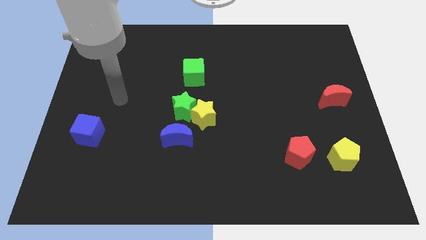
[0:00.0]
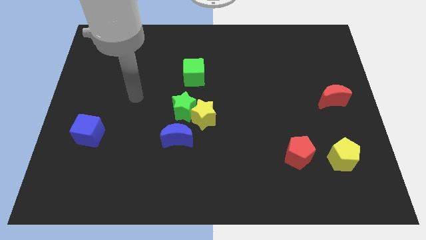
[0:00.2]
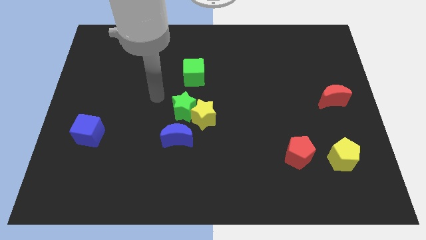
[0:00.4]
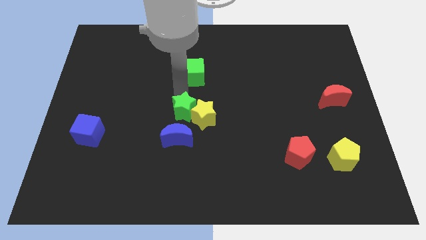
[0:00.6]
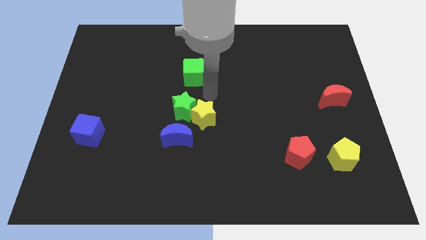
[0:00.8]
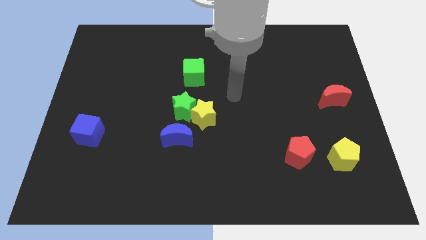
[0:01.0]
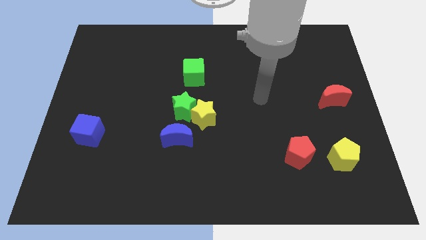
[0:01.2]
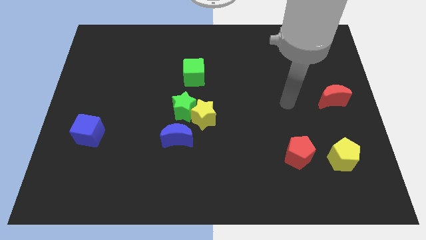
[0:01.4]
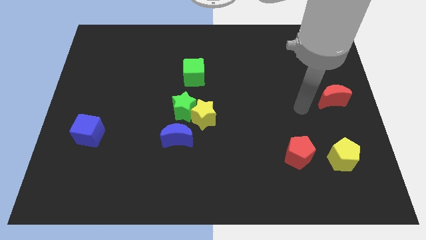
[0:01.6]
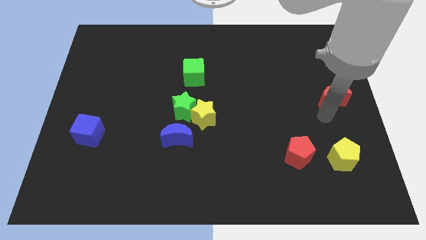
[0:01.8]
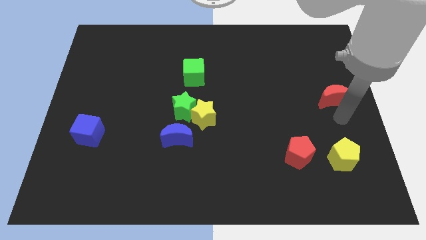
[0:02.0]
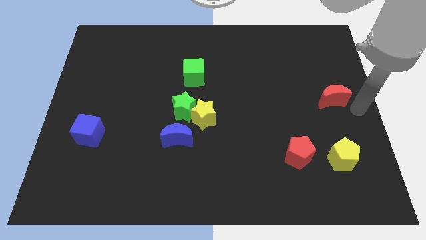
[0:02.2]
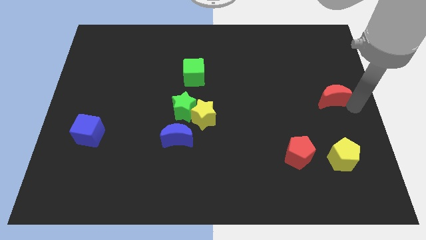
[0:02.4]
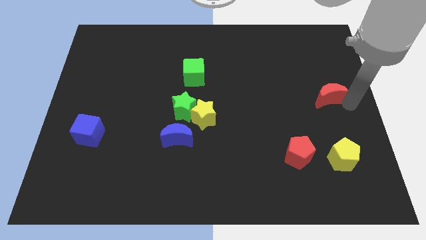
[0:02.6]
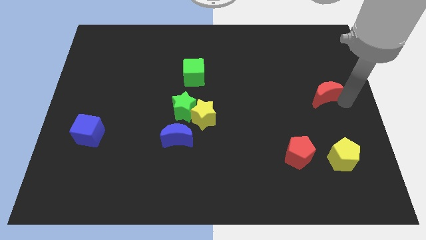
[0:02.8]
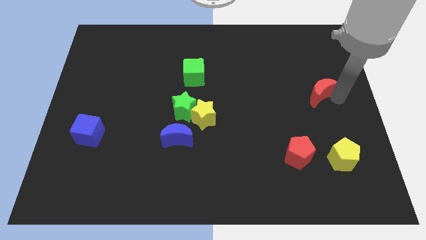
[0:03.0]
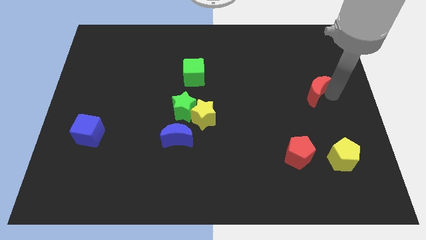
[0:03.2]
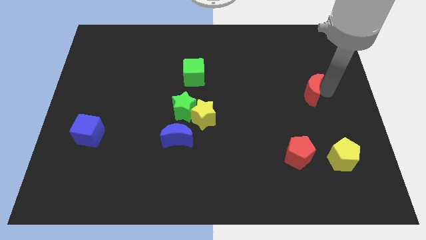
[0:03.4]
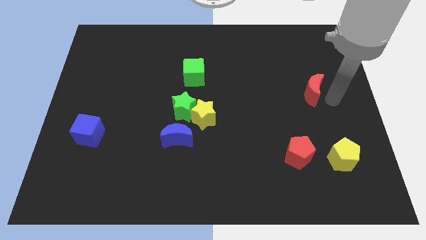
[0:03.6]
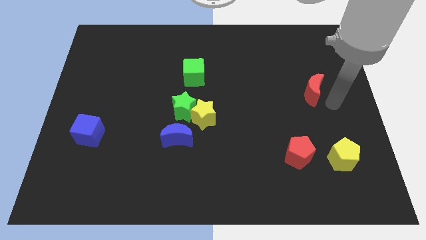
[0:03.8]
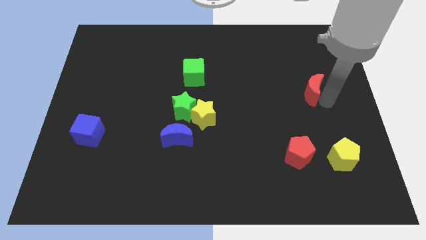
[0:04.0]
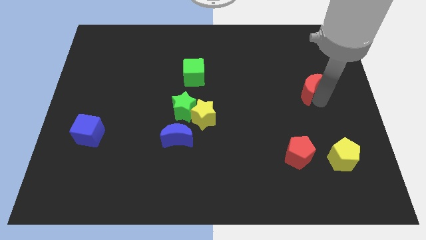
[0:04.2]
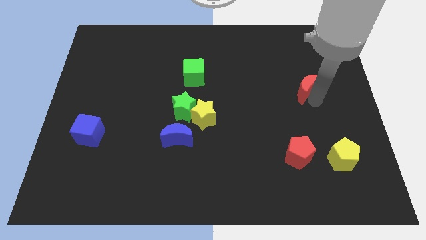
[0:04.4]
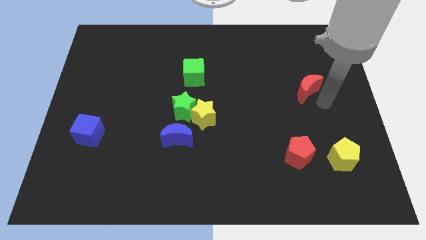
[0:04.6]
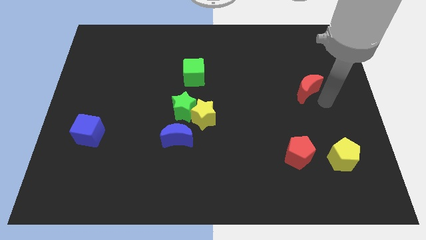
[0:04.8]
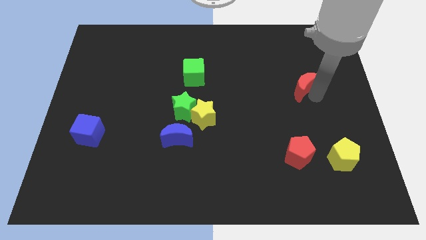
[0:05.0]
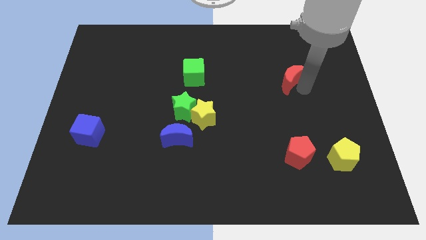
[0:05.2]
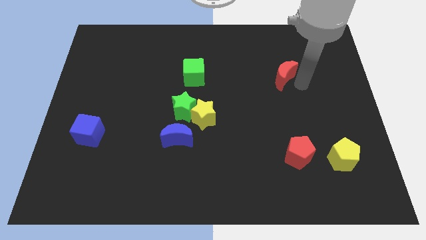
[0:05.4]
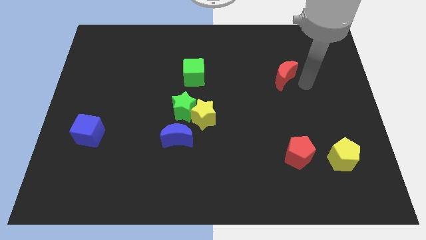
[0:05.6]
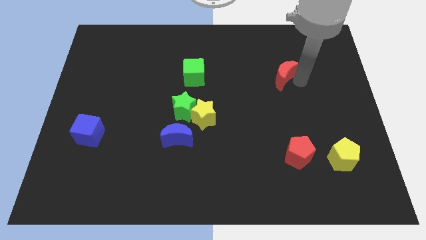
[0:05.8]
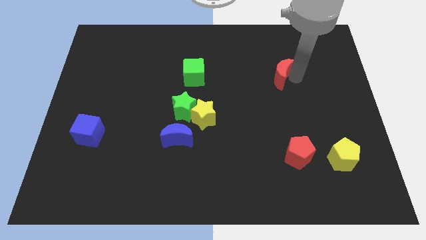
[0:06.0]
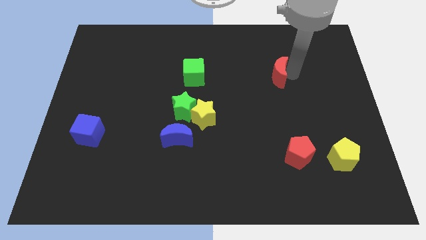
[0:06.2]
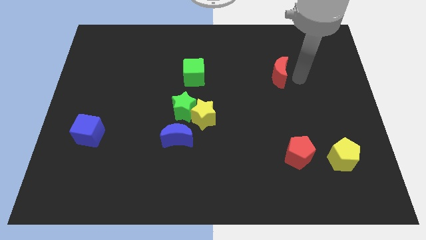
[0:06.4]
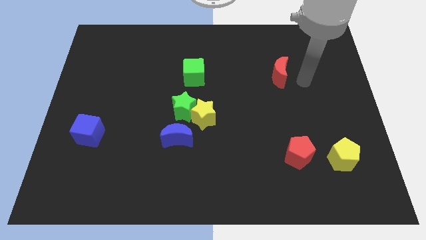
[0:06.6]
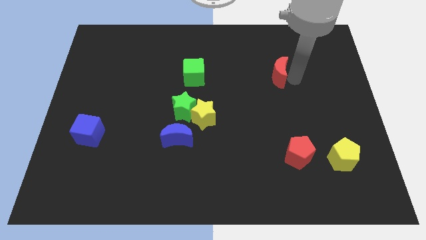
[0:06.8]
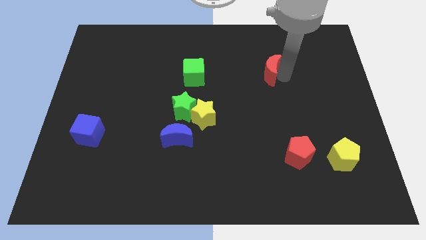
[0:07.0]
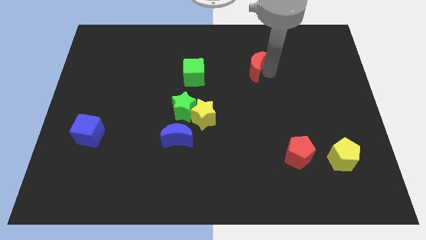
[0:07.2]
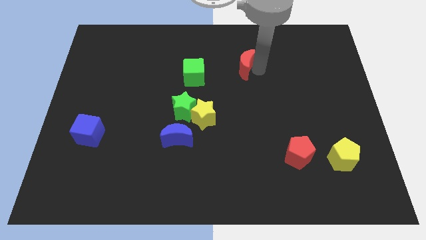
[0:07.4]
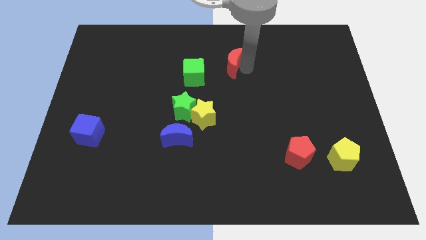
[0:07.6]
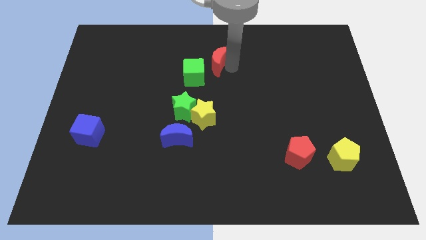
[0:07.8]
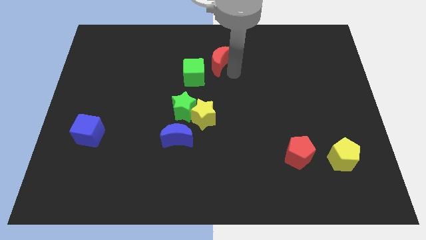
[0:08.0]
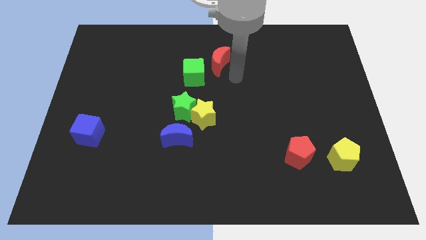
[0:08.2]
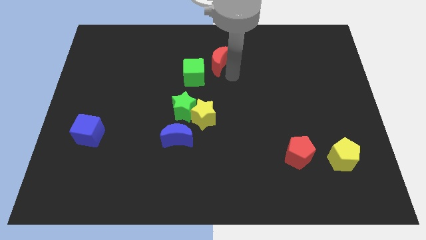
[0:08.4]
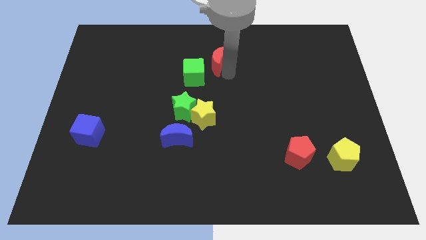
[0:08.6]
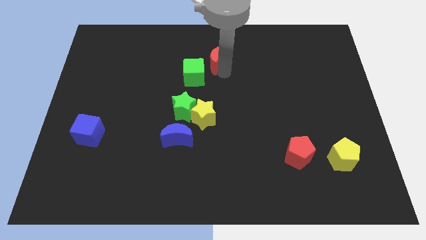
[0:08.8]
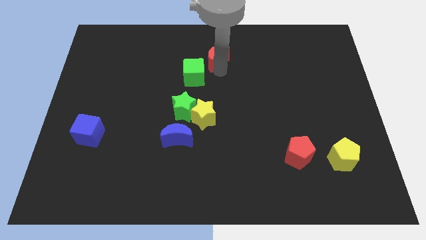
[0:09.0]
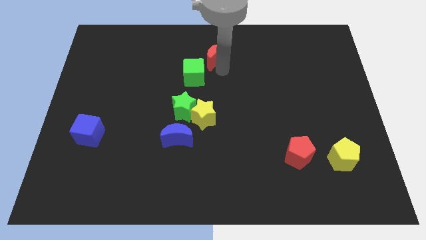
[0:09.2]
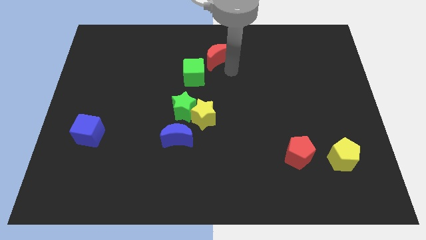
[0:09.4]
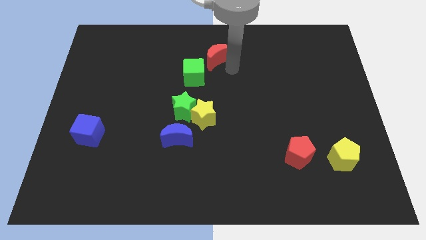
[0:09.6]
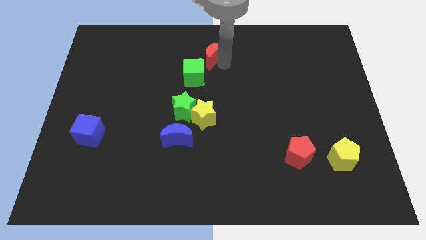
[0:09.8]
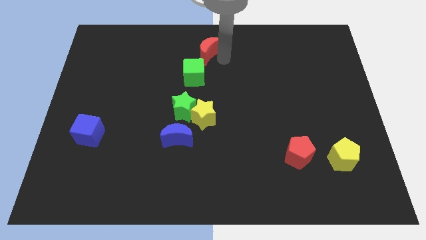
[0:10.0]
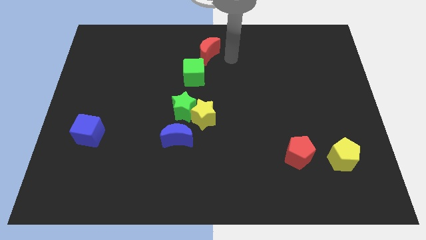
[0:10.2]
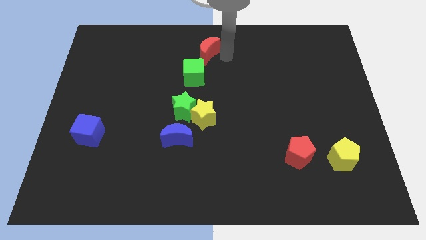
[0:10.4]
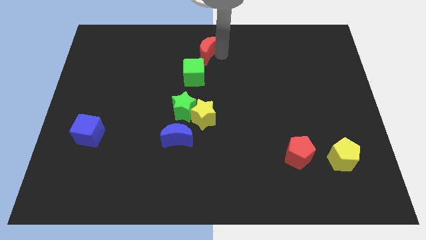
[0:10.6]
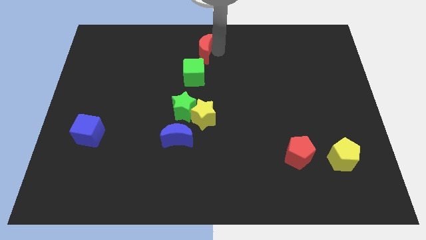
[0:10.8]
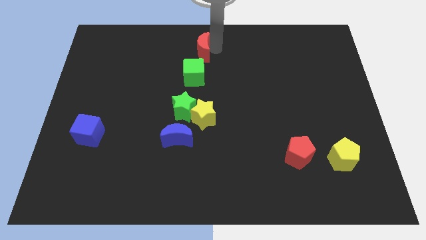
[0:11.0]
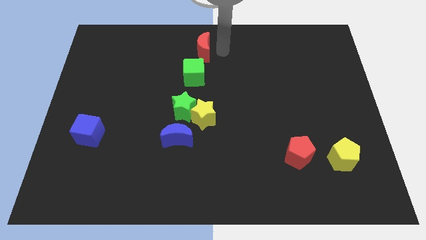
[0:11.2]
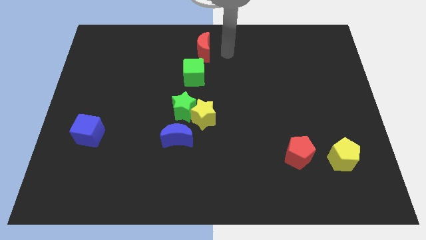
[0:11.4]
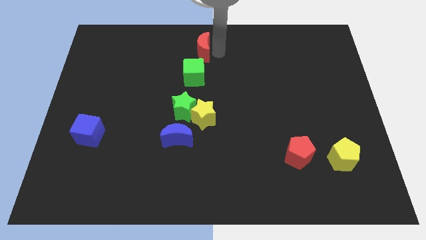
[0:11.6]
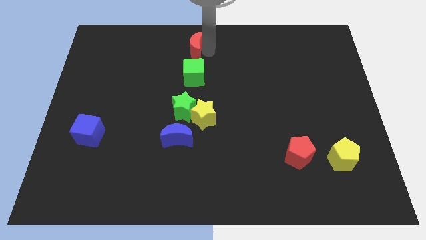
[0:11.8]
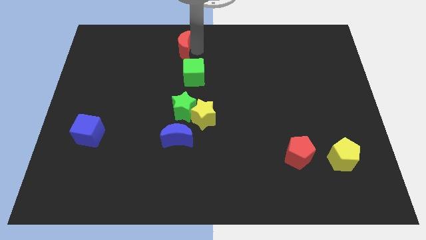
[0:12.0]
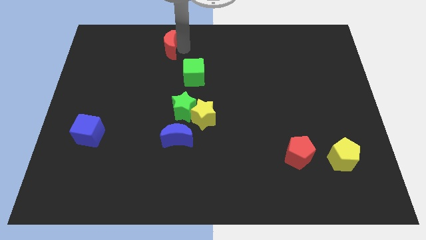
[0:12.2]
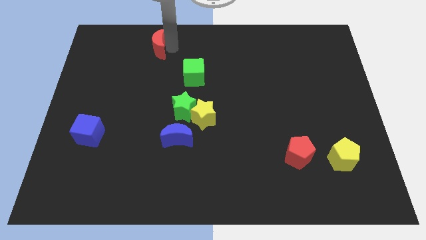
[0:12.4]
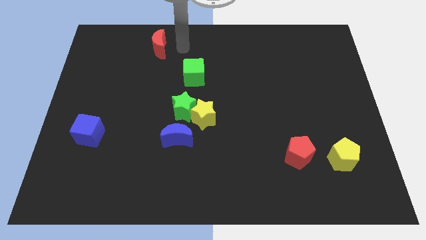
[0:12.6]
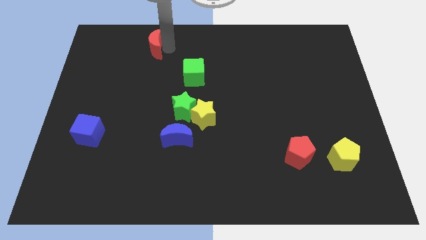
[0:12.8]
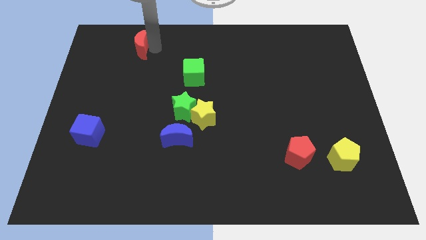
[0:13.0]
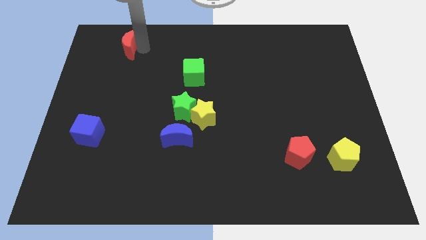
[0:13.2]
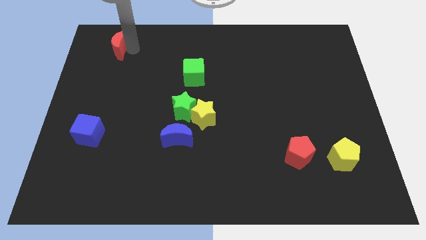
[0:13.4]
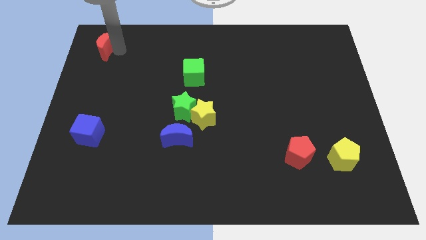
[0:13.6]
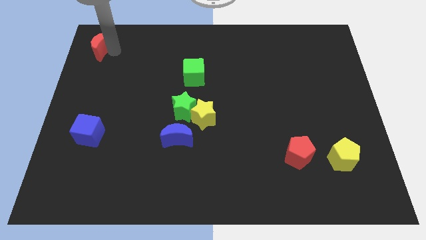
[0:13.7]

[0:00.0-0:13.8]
push the red moon to the top left of the board
